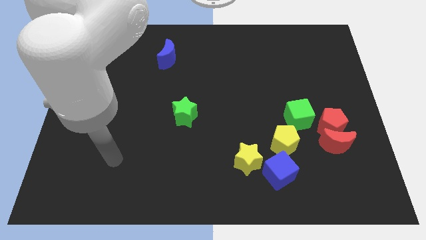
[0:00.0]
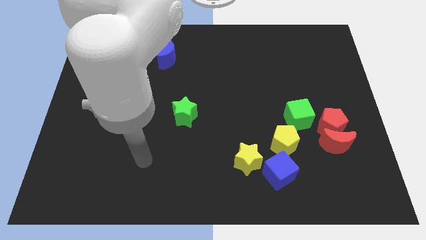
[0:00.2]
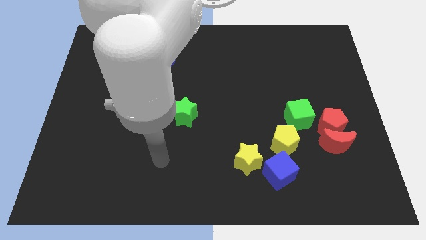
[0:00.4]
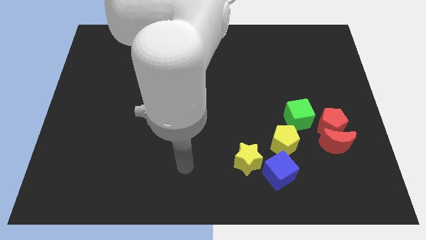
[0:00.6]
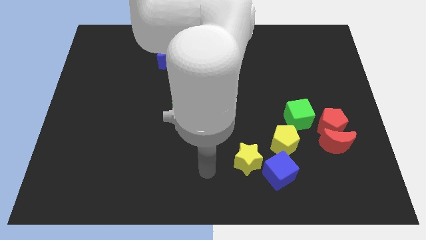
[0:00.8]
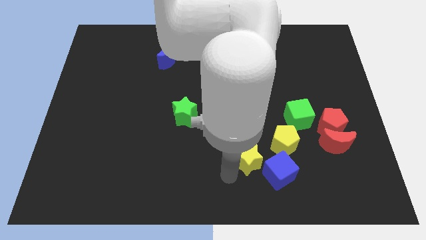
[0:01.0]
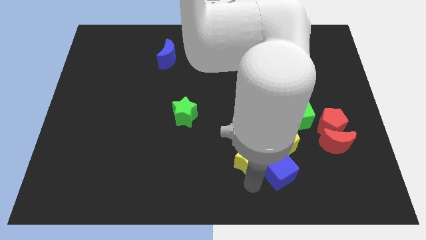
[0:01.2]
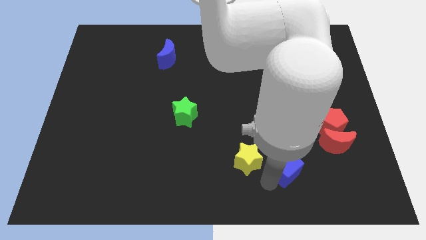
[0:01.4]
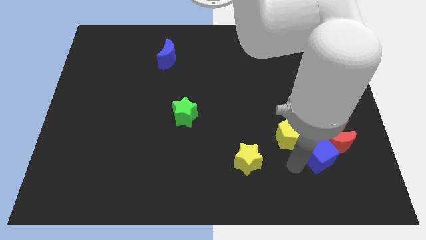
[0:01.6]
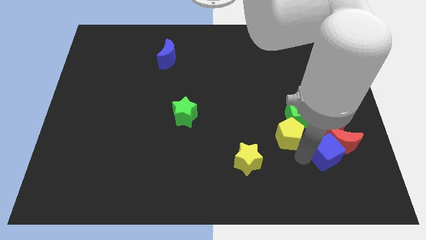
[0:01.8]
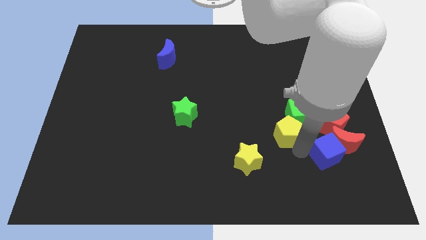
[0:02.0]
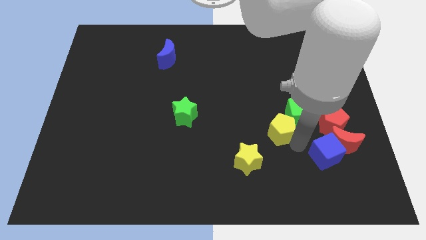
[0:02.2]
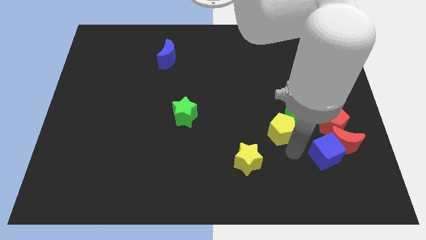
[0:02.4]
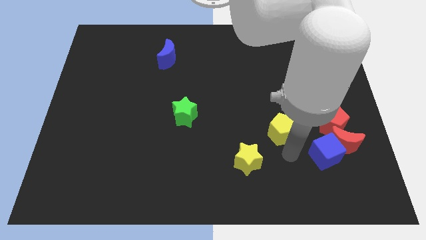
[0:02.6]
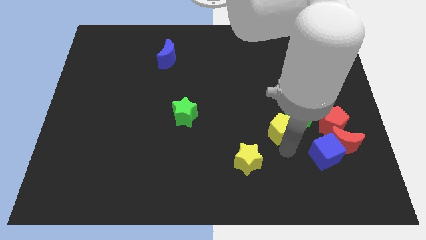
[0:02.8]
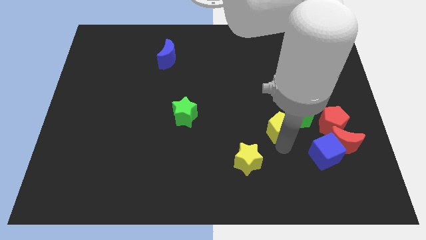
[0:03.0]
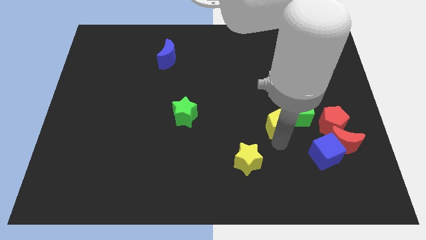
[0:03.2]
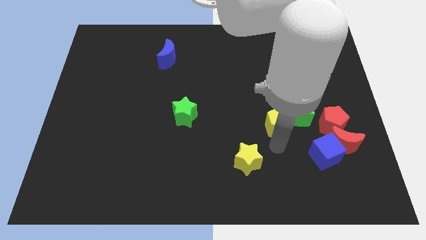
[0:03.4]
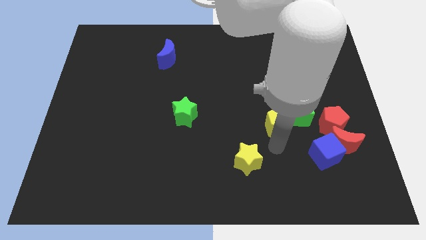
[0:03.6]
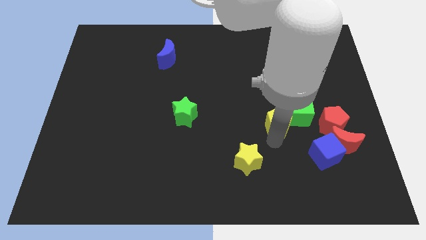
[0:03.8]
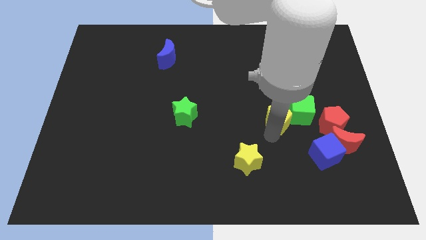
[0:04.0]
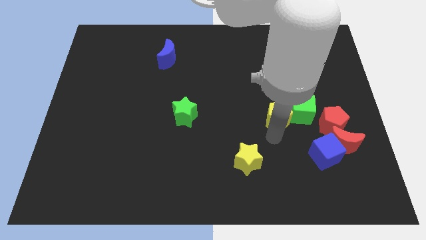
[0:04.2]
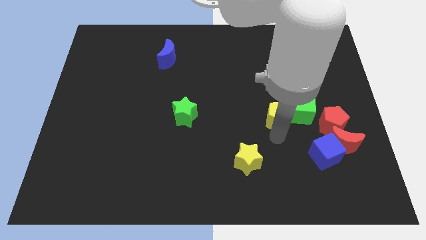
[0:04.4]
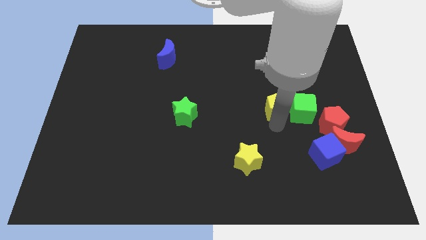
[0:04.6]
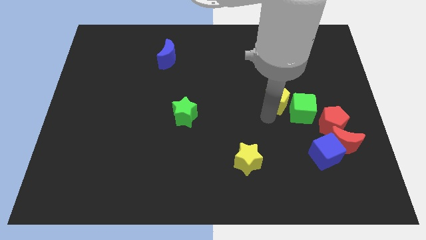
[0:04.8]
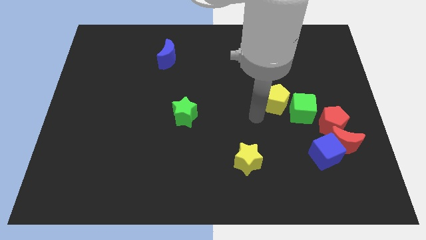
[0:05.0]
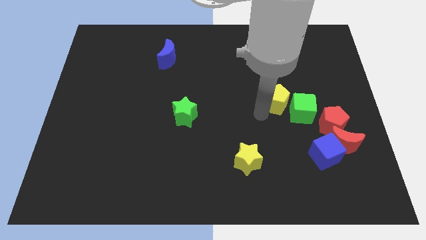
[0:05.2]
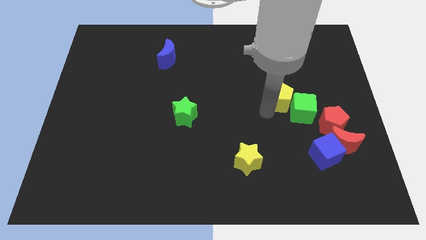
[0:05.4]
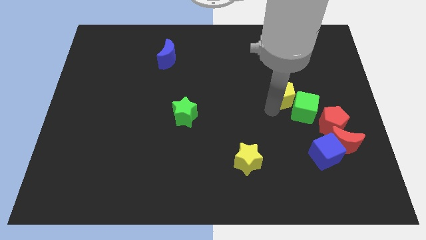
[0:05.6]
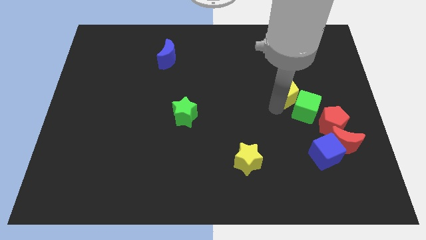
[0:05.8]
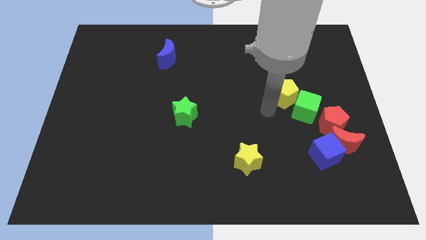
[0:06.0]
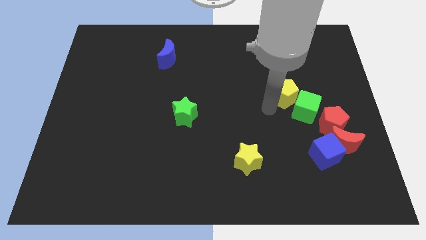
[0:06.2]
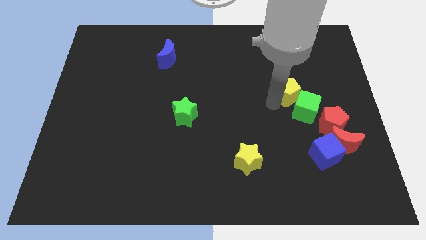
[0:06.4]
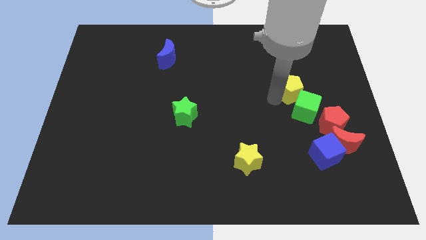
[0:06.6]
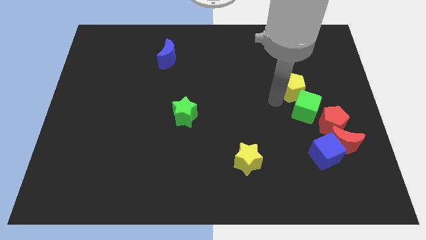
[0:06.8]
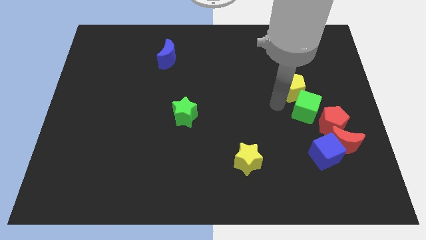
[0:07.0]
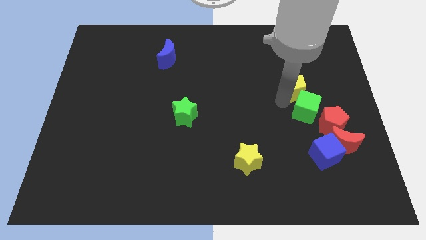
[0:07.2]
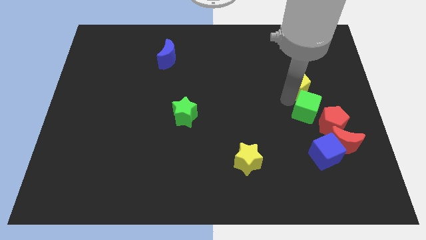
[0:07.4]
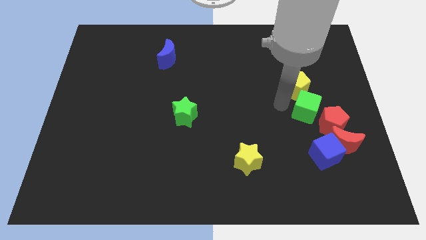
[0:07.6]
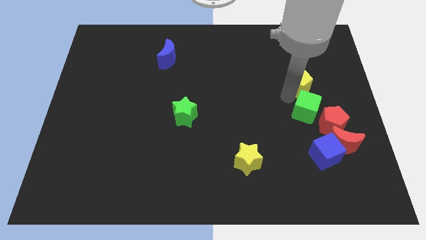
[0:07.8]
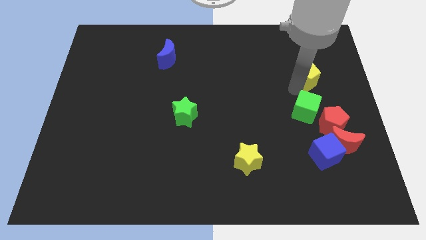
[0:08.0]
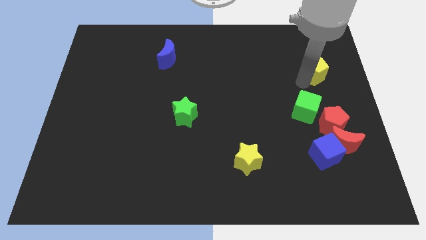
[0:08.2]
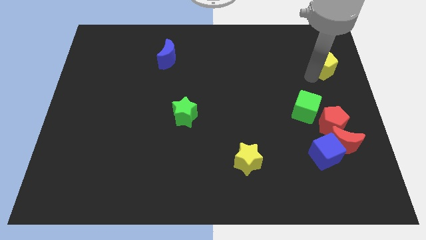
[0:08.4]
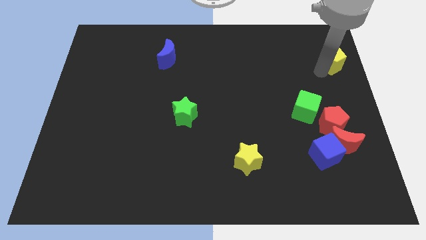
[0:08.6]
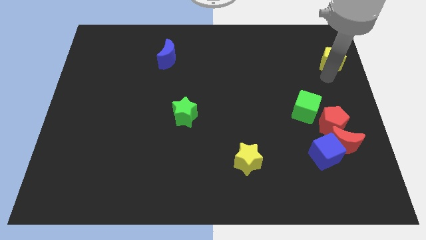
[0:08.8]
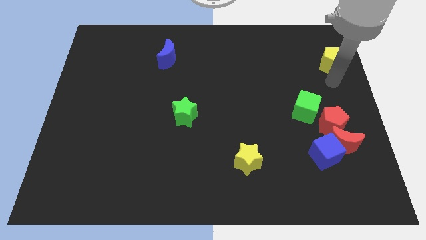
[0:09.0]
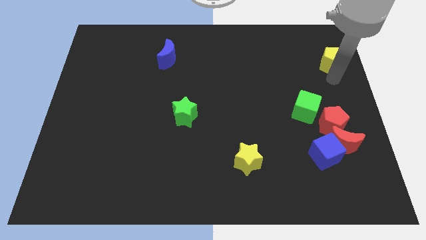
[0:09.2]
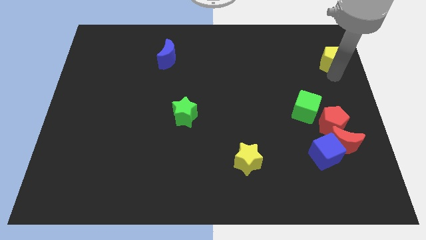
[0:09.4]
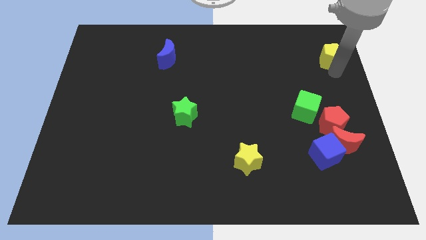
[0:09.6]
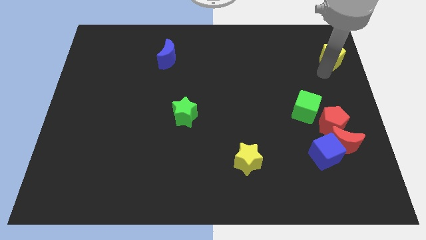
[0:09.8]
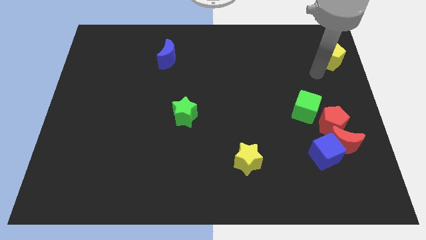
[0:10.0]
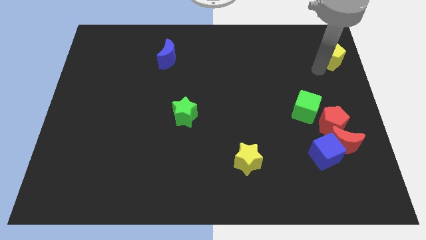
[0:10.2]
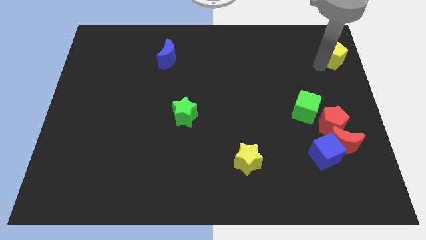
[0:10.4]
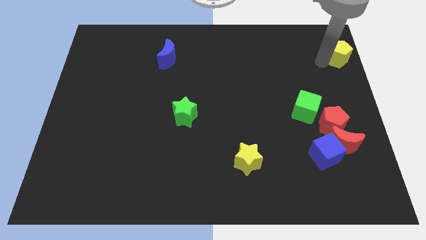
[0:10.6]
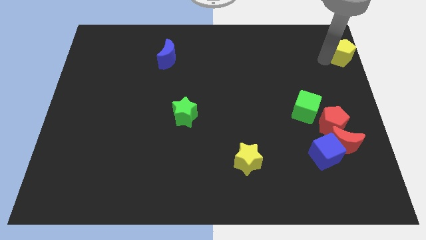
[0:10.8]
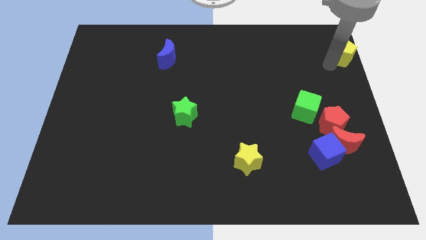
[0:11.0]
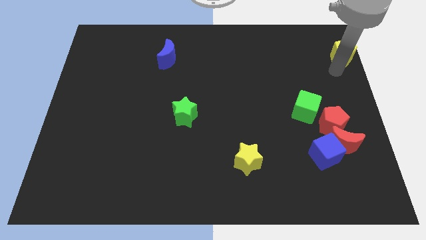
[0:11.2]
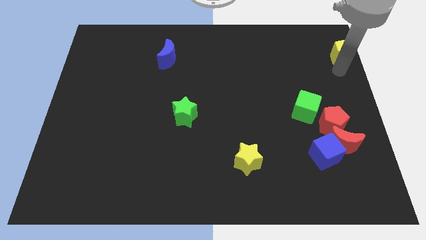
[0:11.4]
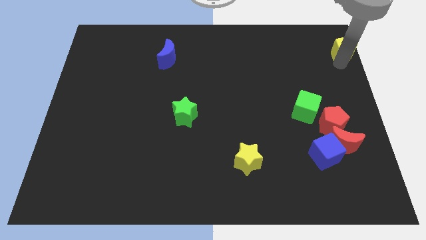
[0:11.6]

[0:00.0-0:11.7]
push the yellow pentagon to the top right corner
